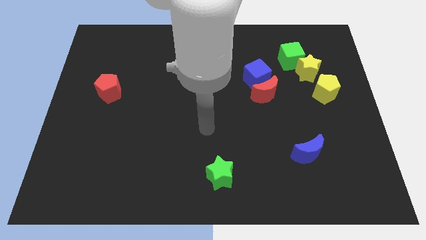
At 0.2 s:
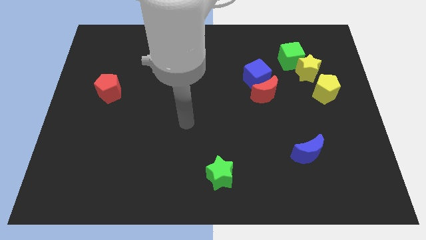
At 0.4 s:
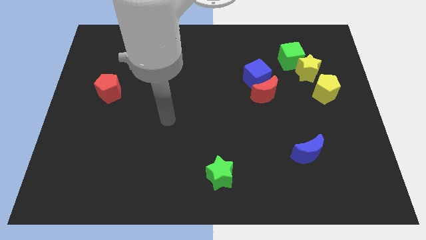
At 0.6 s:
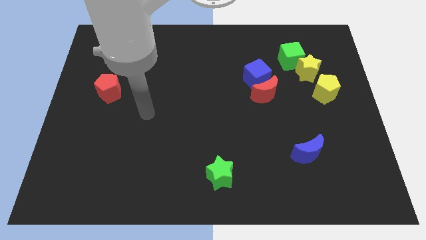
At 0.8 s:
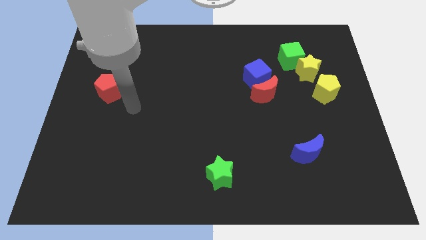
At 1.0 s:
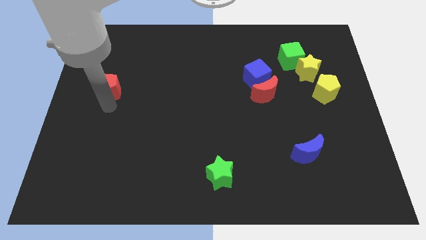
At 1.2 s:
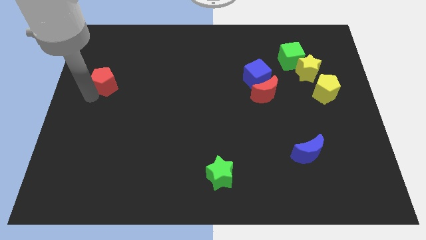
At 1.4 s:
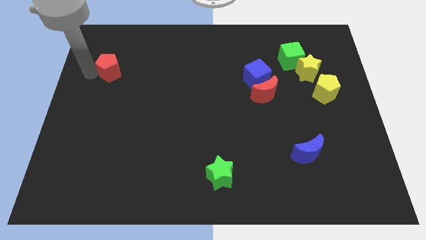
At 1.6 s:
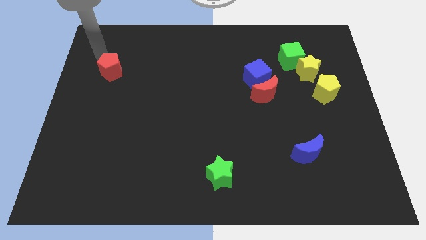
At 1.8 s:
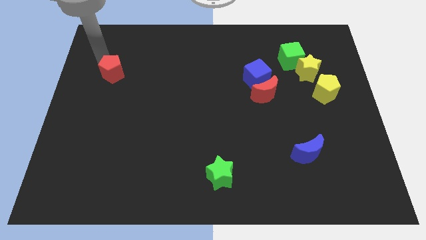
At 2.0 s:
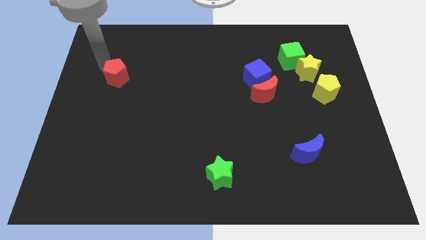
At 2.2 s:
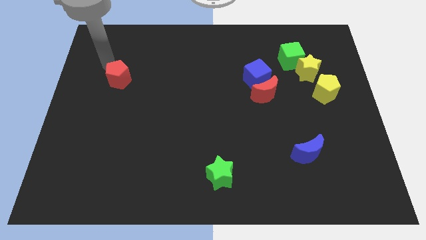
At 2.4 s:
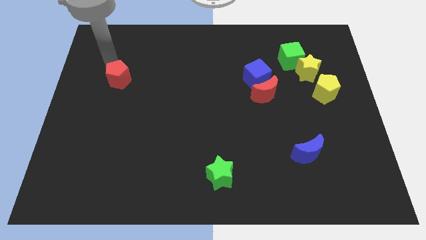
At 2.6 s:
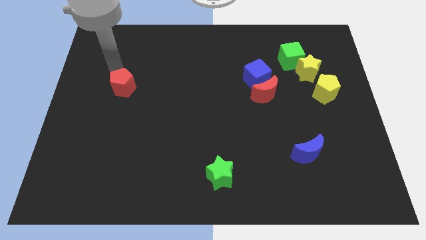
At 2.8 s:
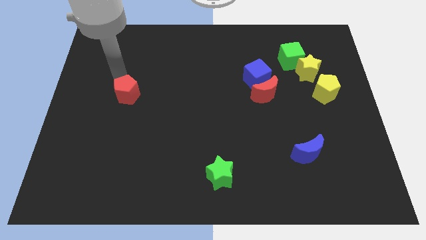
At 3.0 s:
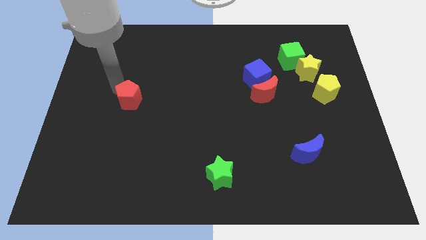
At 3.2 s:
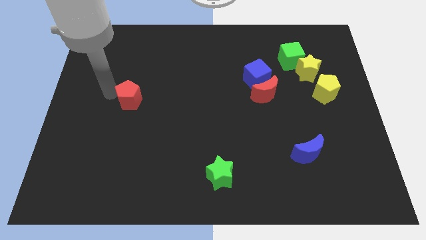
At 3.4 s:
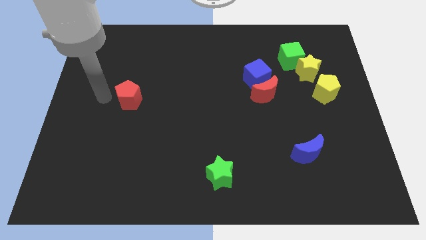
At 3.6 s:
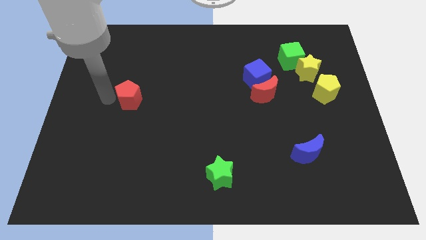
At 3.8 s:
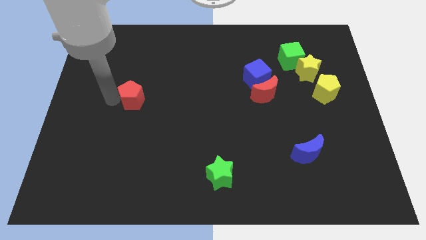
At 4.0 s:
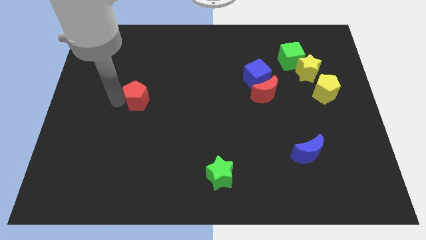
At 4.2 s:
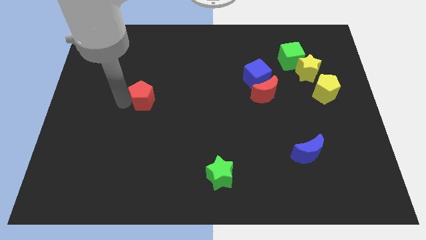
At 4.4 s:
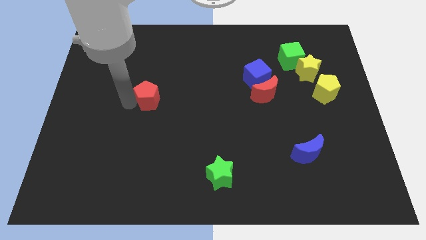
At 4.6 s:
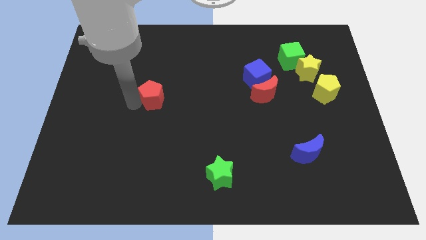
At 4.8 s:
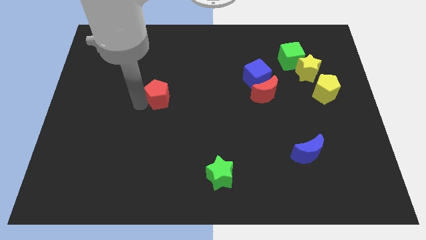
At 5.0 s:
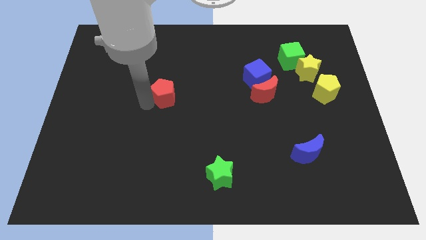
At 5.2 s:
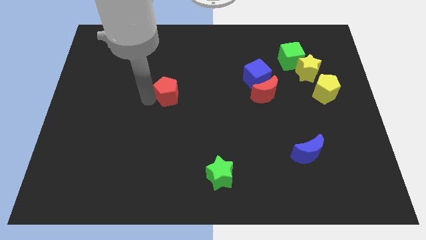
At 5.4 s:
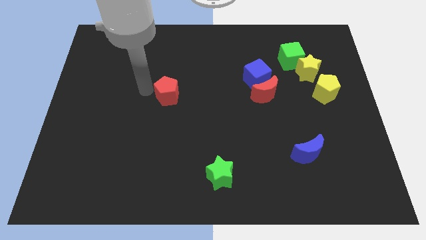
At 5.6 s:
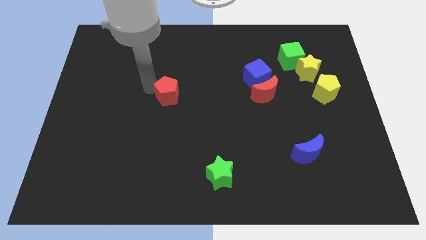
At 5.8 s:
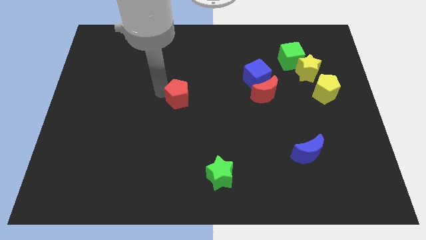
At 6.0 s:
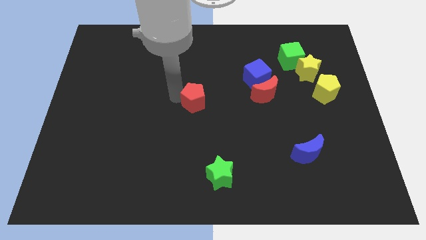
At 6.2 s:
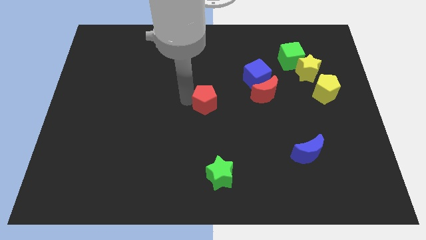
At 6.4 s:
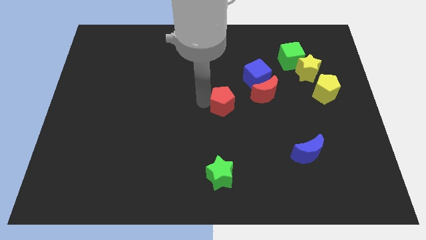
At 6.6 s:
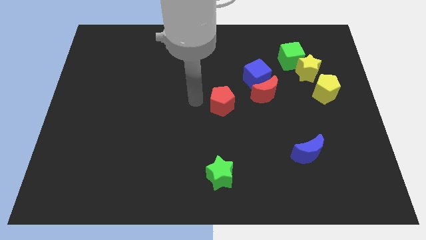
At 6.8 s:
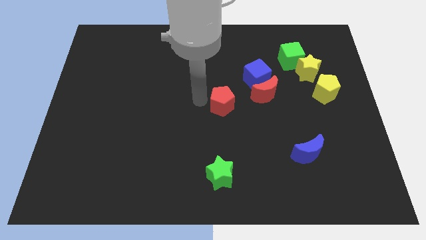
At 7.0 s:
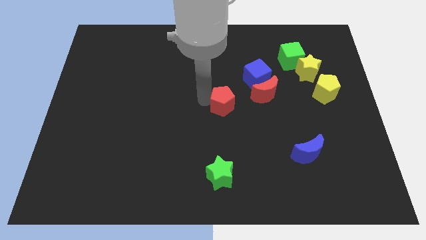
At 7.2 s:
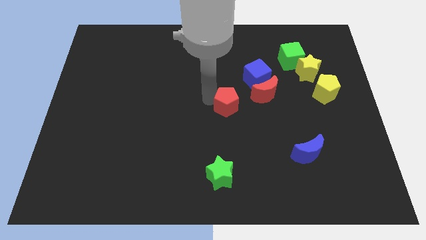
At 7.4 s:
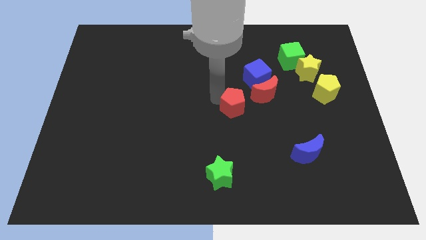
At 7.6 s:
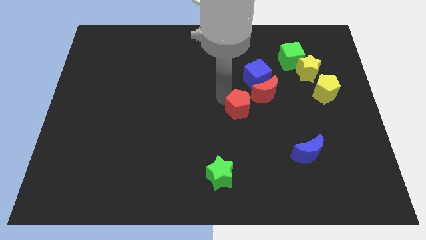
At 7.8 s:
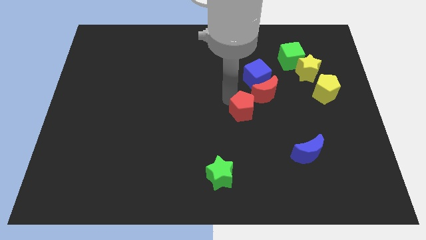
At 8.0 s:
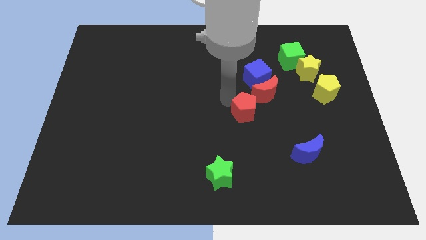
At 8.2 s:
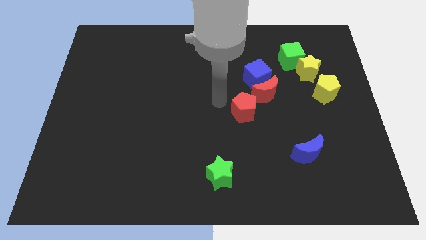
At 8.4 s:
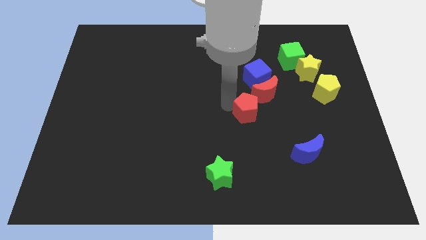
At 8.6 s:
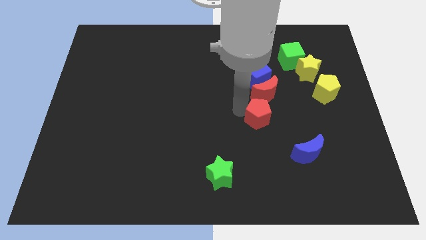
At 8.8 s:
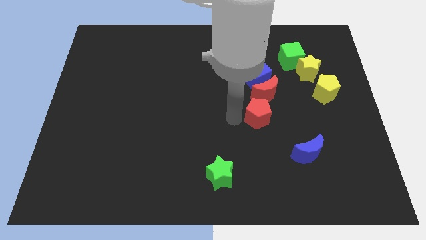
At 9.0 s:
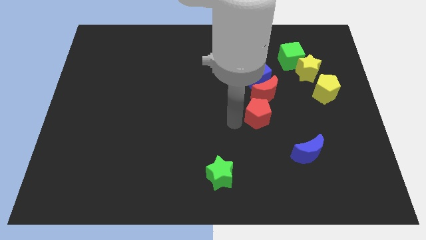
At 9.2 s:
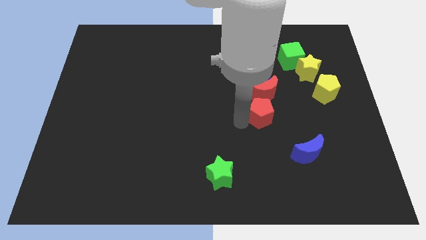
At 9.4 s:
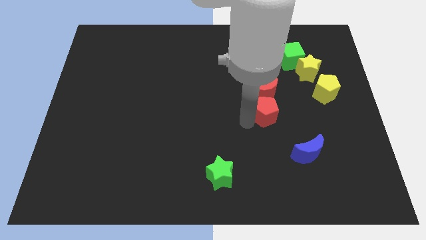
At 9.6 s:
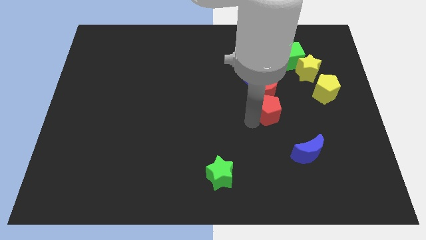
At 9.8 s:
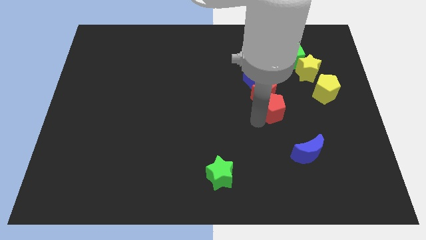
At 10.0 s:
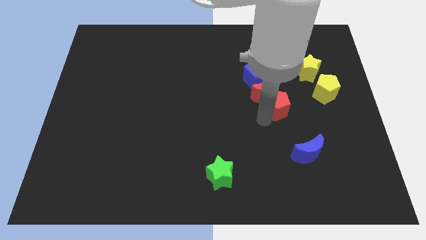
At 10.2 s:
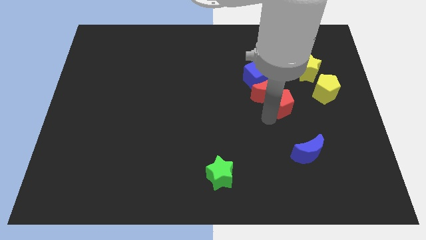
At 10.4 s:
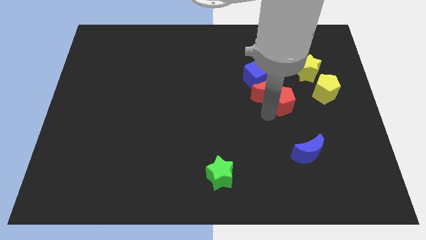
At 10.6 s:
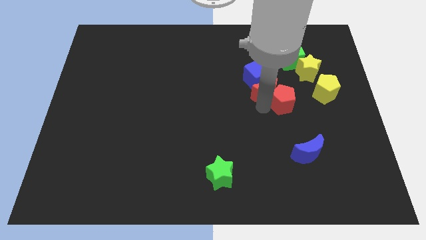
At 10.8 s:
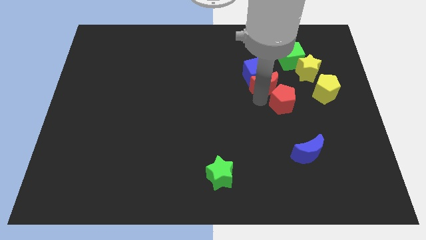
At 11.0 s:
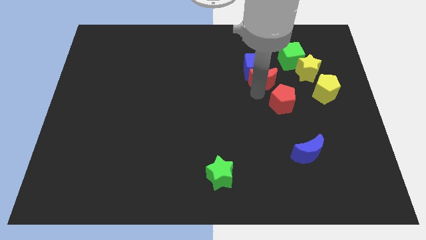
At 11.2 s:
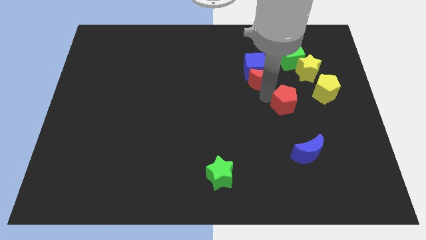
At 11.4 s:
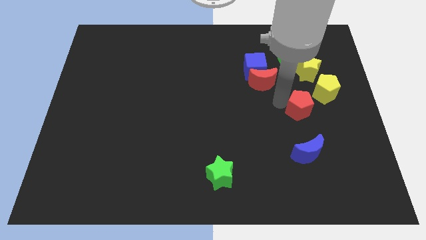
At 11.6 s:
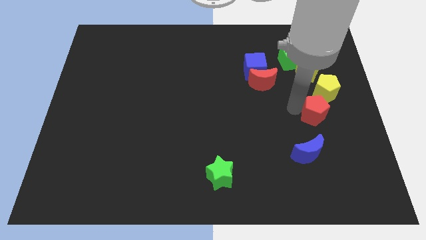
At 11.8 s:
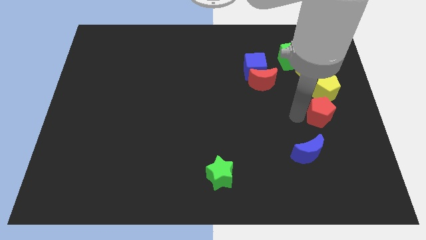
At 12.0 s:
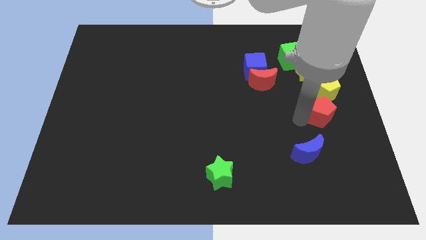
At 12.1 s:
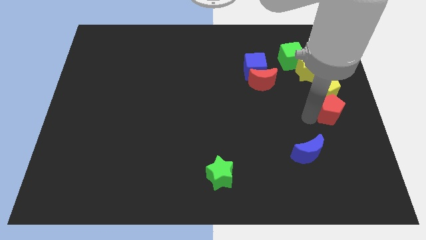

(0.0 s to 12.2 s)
push the red pentagon to the center right

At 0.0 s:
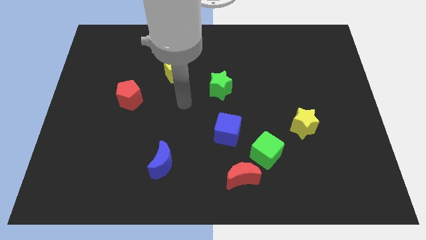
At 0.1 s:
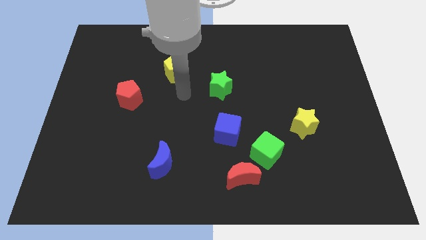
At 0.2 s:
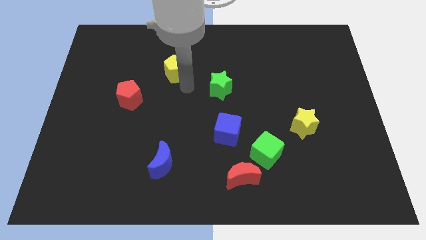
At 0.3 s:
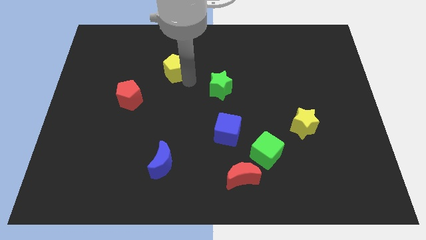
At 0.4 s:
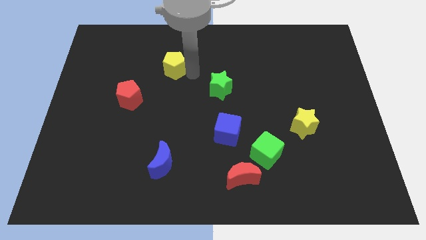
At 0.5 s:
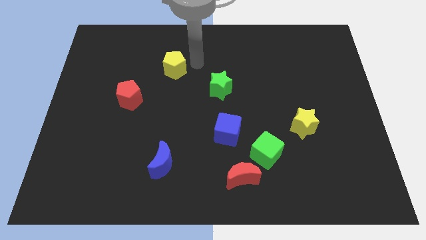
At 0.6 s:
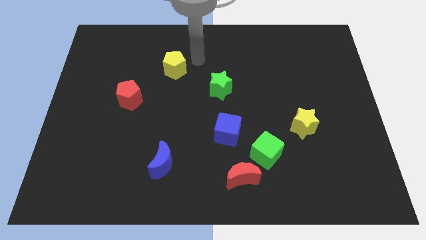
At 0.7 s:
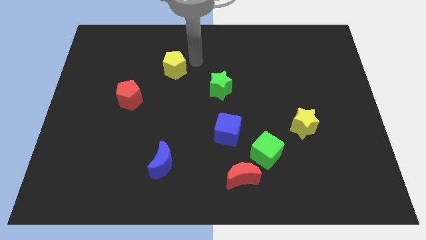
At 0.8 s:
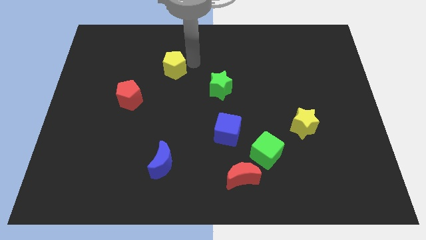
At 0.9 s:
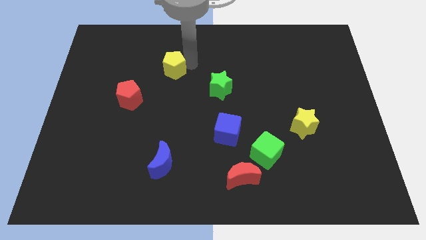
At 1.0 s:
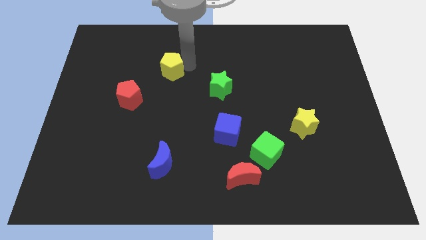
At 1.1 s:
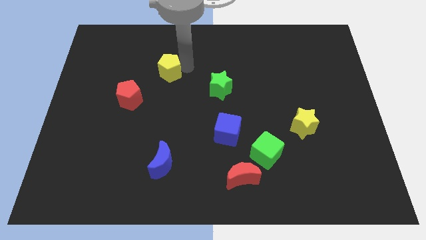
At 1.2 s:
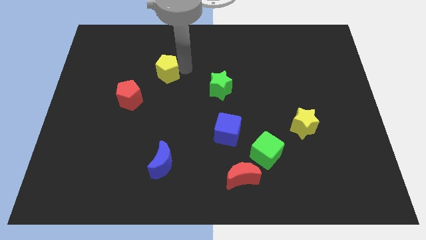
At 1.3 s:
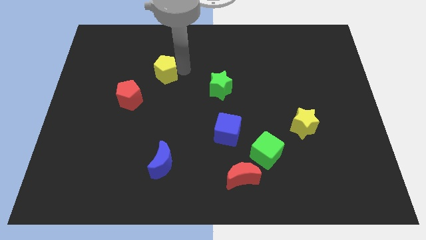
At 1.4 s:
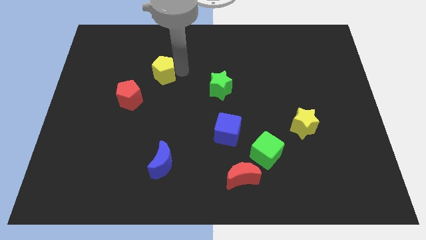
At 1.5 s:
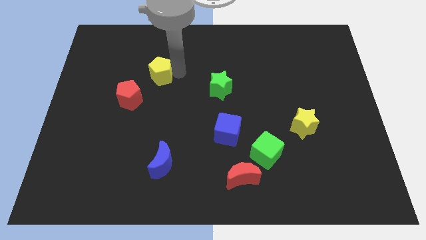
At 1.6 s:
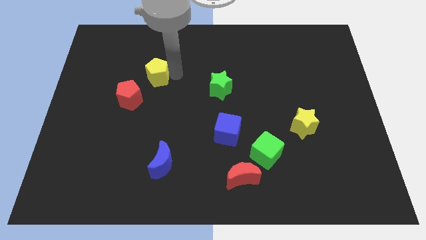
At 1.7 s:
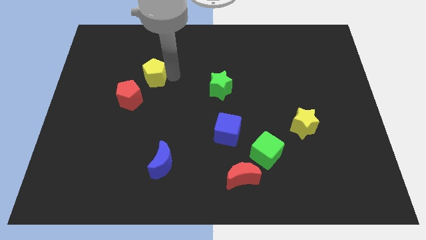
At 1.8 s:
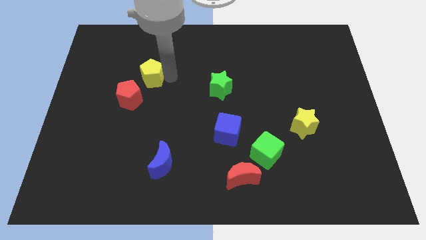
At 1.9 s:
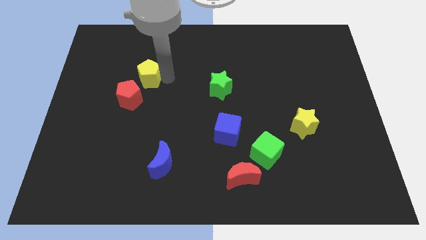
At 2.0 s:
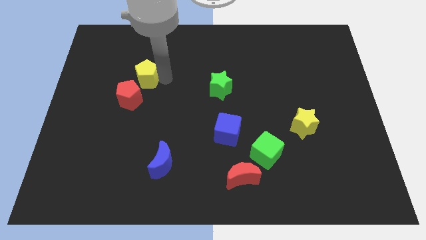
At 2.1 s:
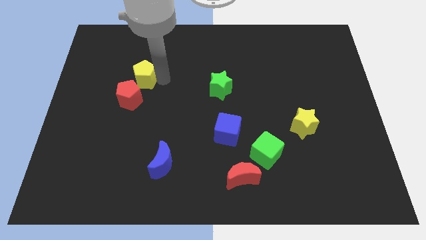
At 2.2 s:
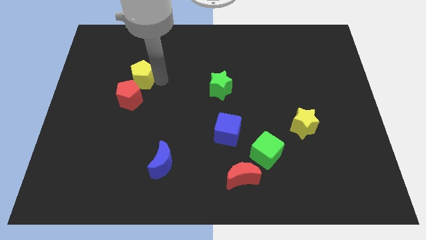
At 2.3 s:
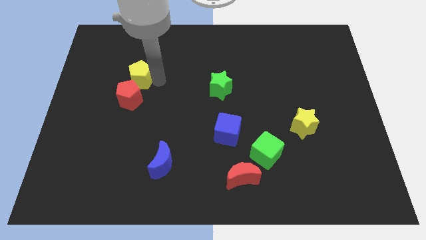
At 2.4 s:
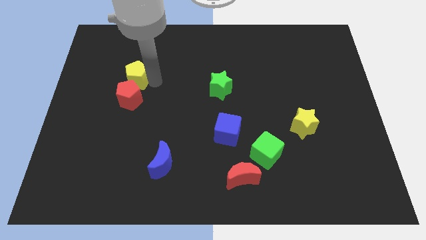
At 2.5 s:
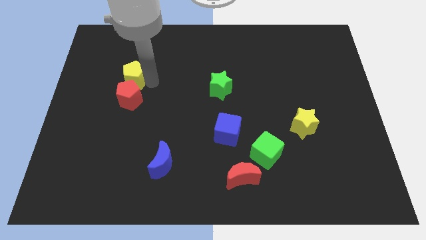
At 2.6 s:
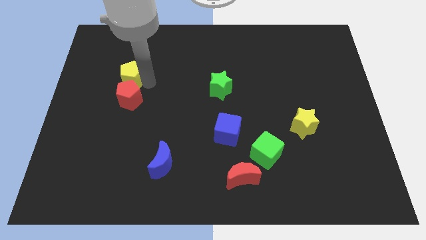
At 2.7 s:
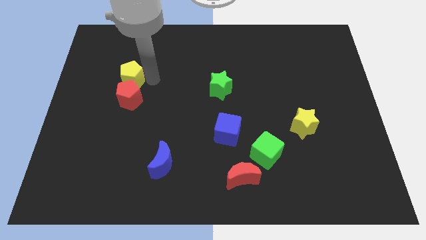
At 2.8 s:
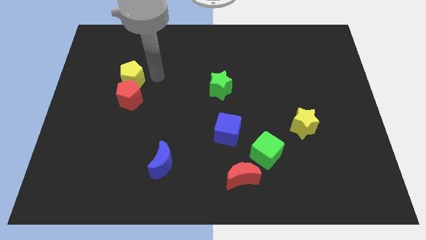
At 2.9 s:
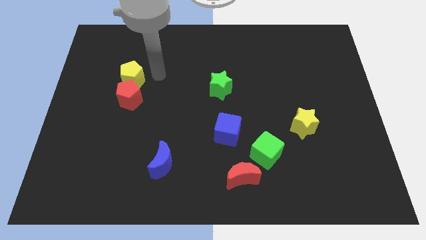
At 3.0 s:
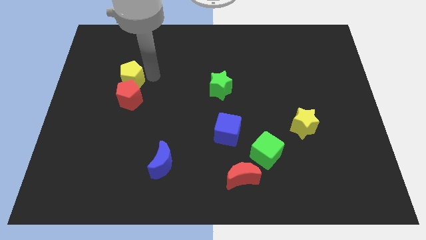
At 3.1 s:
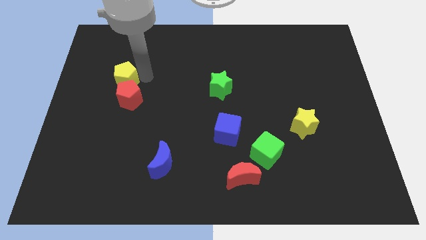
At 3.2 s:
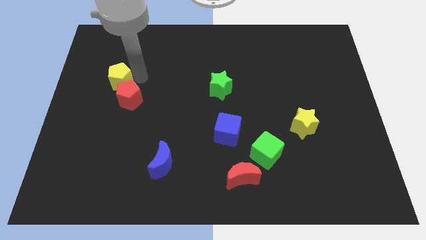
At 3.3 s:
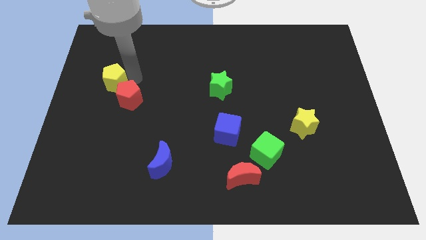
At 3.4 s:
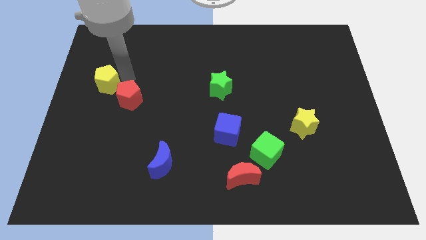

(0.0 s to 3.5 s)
slide the yellow pentagon to the center left
